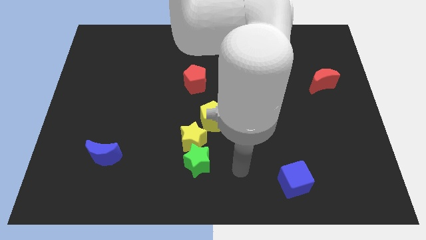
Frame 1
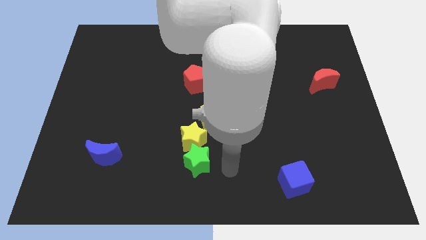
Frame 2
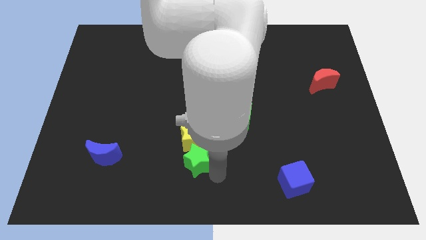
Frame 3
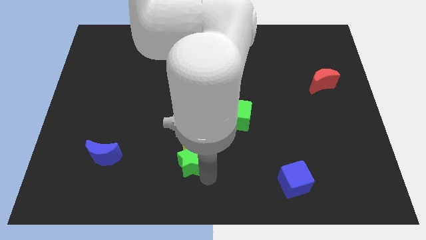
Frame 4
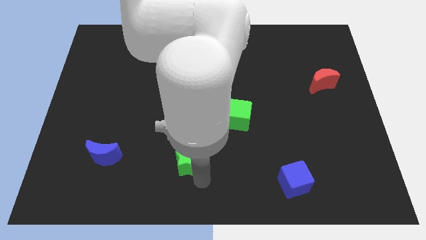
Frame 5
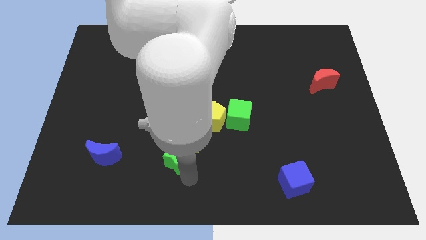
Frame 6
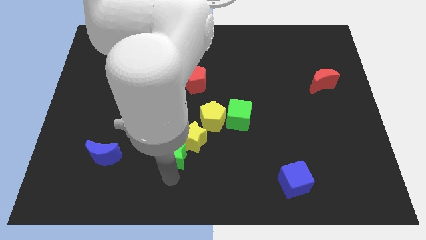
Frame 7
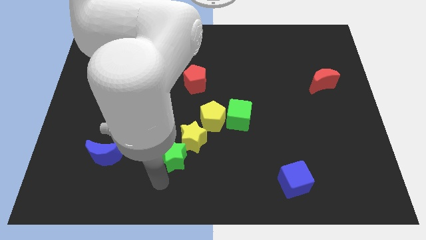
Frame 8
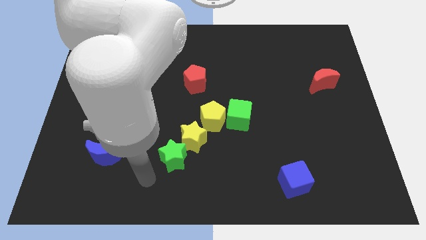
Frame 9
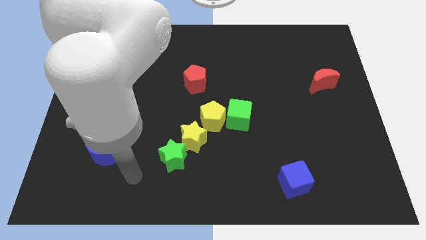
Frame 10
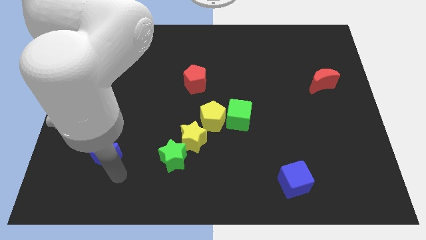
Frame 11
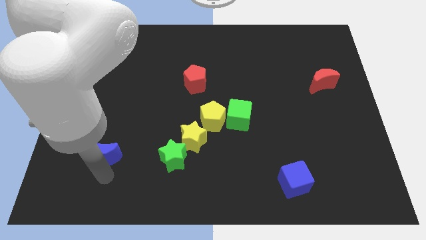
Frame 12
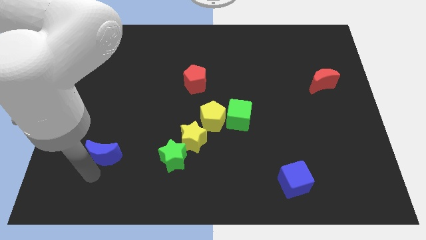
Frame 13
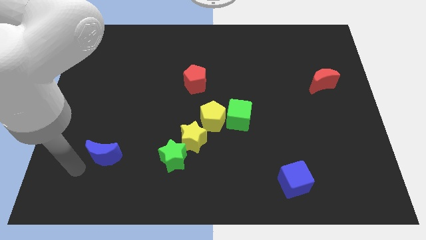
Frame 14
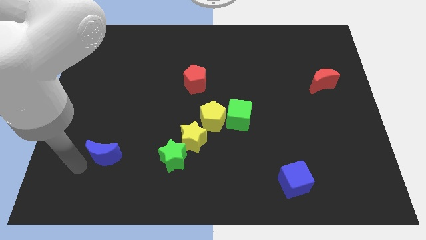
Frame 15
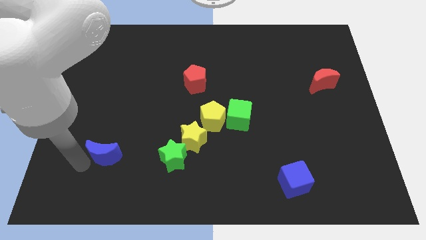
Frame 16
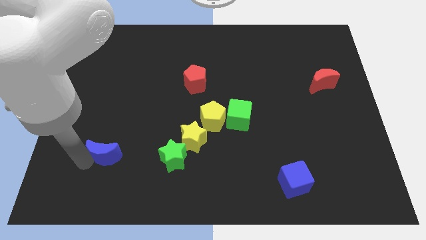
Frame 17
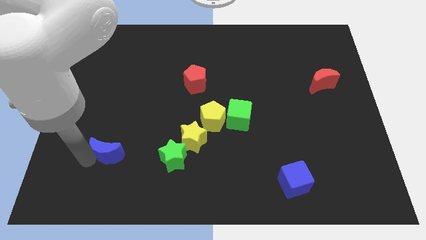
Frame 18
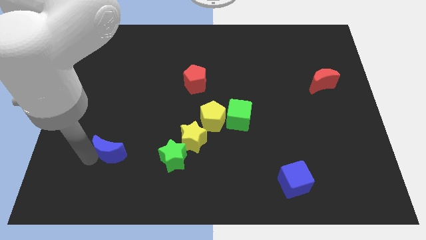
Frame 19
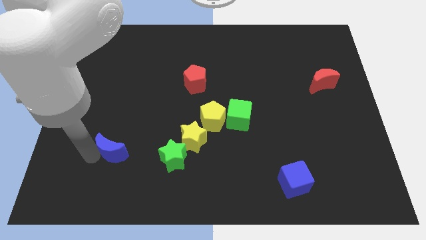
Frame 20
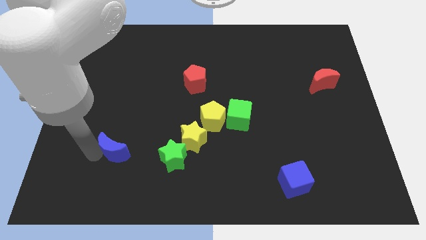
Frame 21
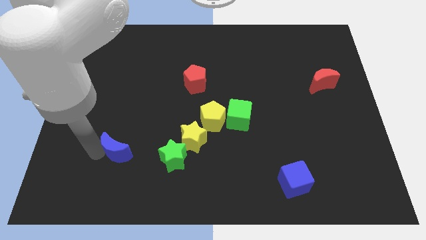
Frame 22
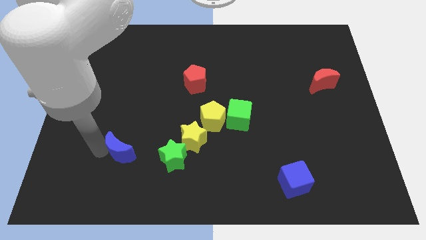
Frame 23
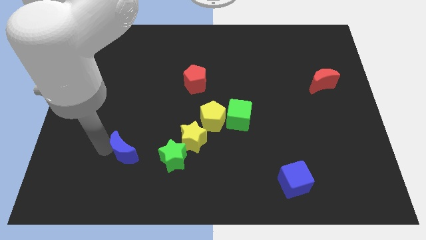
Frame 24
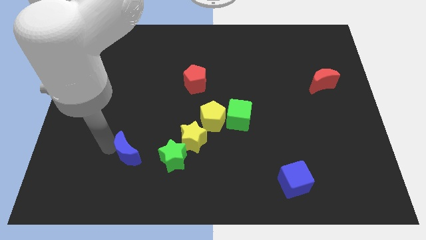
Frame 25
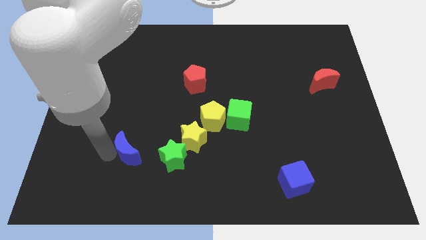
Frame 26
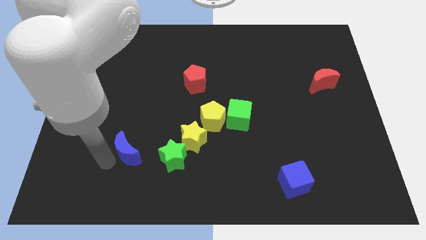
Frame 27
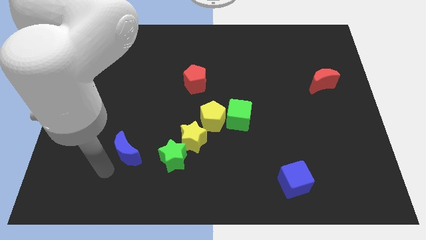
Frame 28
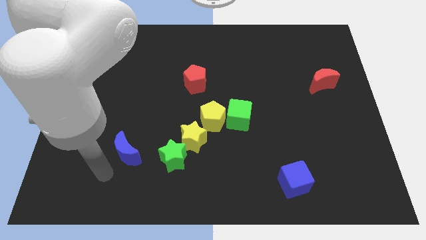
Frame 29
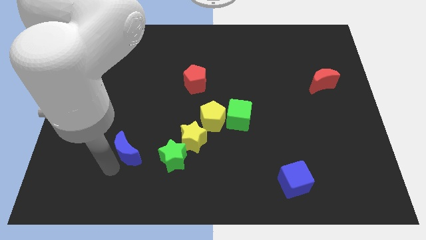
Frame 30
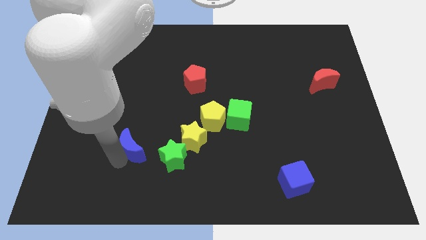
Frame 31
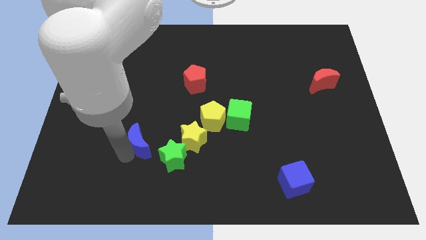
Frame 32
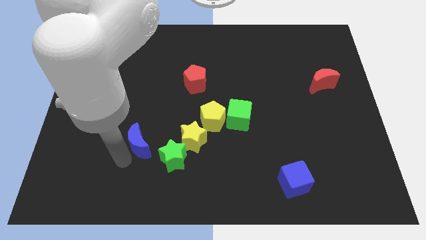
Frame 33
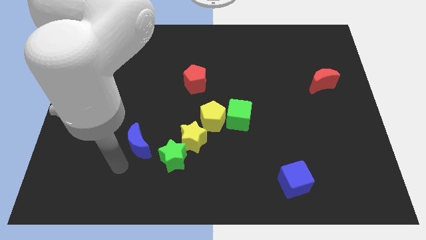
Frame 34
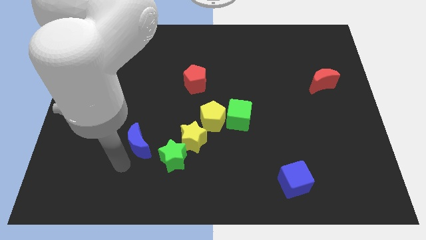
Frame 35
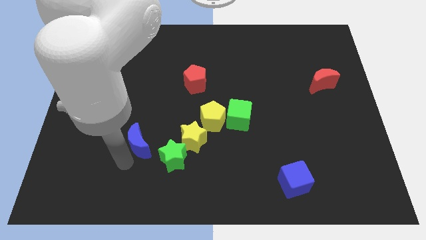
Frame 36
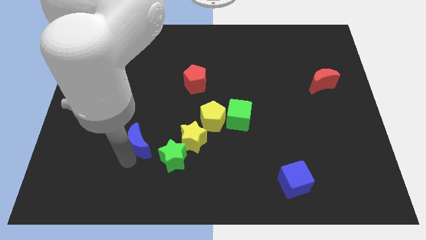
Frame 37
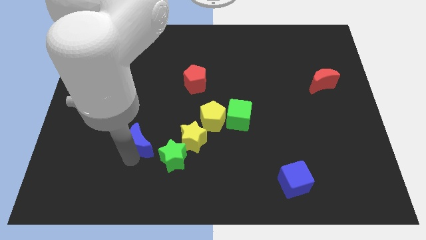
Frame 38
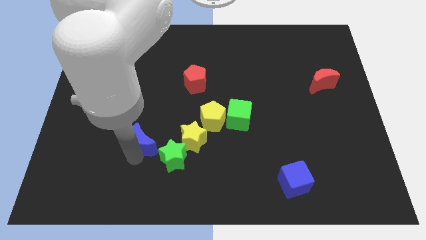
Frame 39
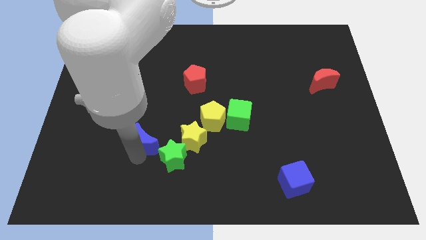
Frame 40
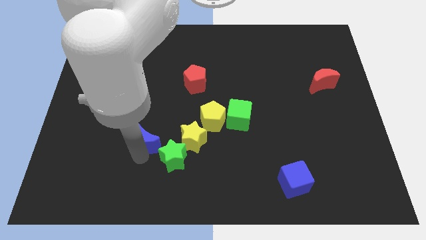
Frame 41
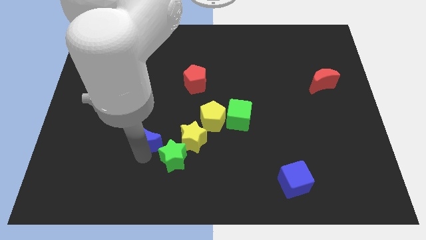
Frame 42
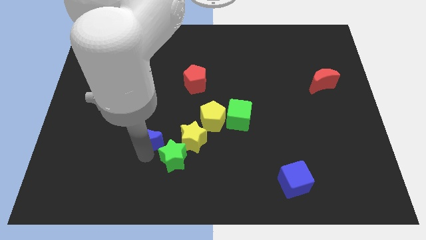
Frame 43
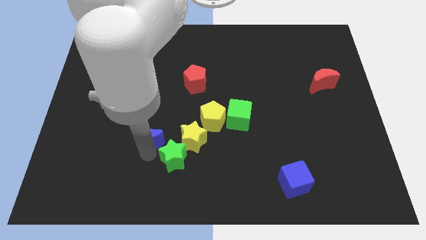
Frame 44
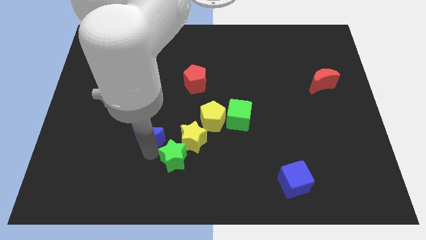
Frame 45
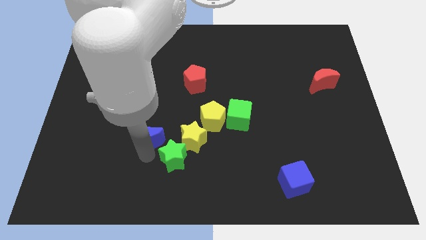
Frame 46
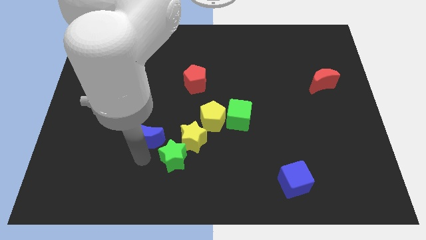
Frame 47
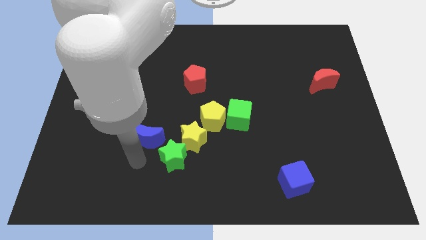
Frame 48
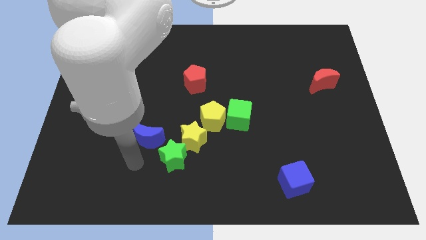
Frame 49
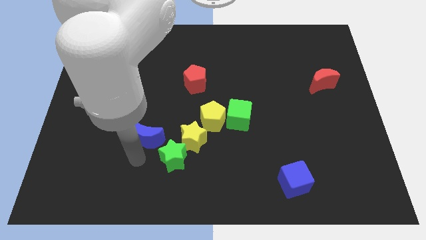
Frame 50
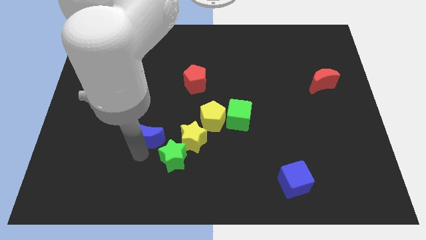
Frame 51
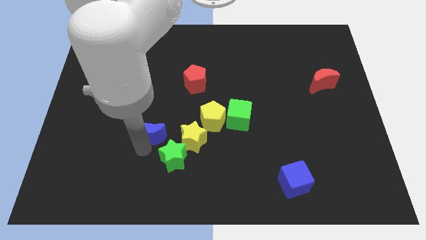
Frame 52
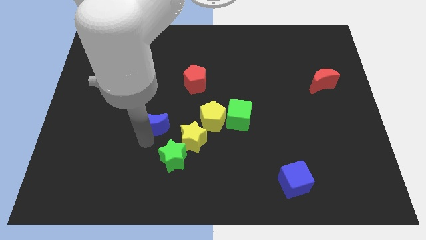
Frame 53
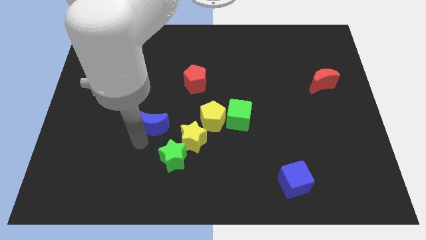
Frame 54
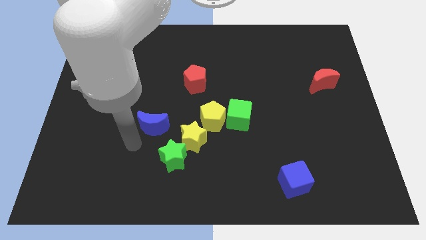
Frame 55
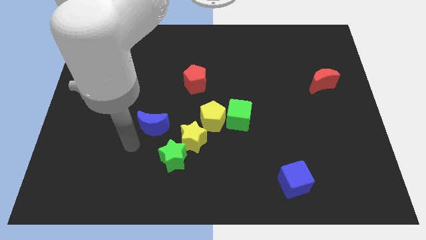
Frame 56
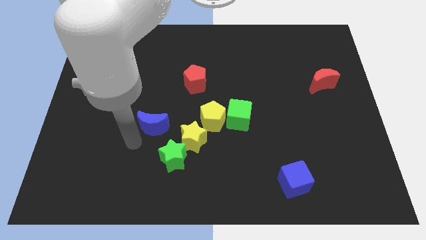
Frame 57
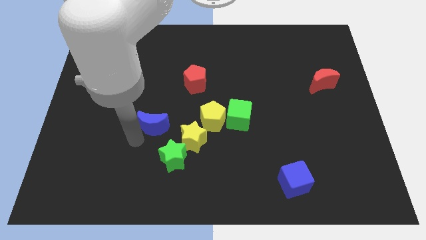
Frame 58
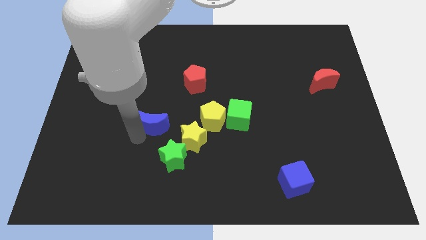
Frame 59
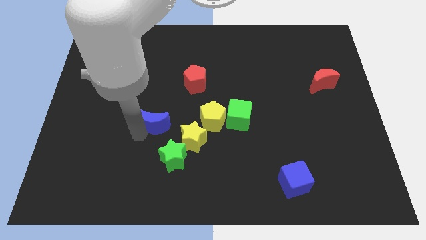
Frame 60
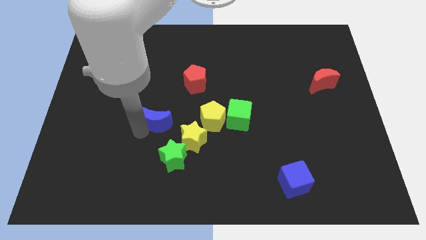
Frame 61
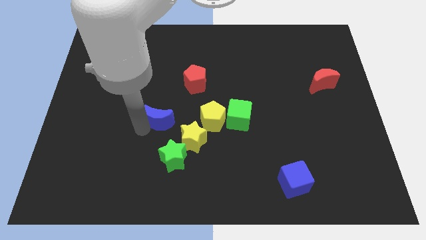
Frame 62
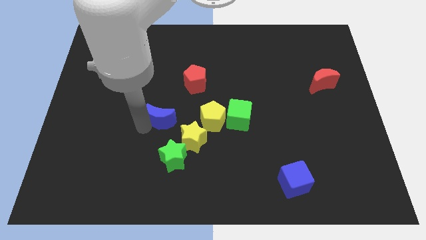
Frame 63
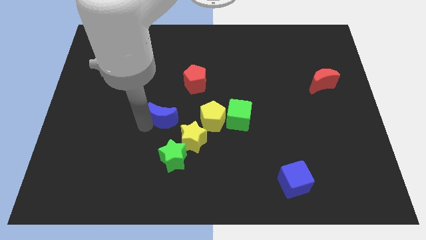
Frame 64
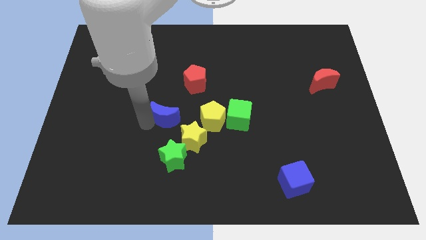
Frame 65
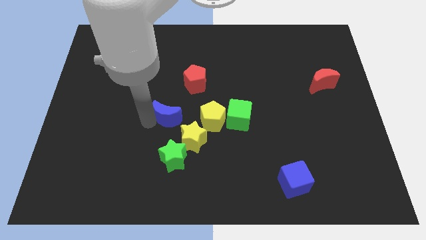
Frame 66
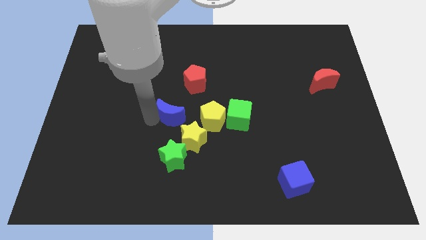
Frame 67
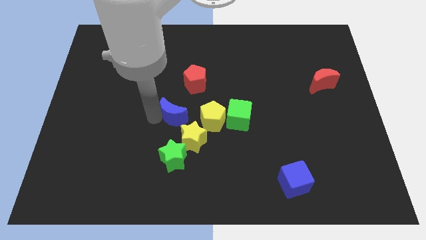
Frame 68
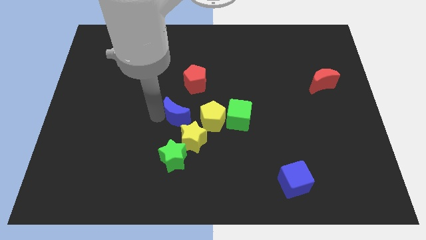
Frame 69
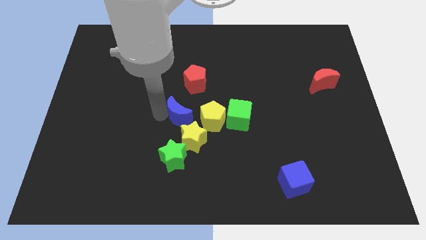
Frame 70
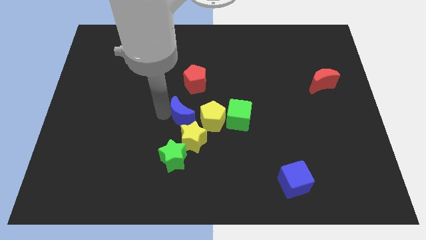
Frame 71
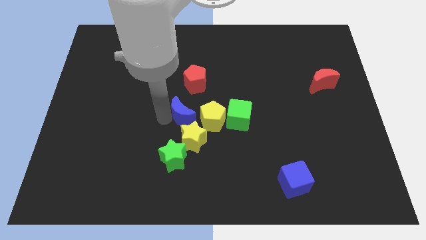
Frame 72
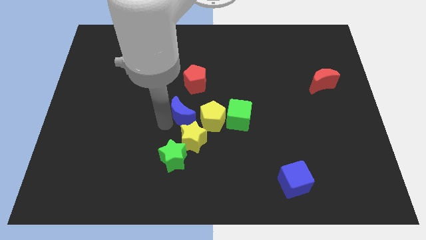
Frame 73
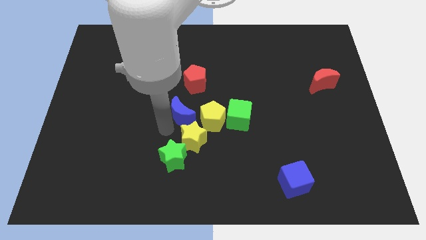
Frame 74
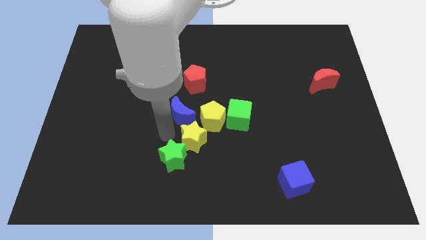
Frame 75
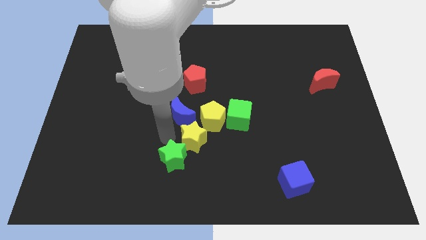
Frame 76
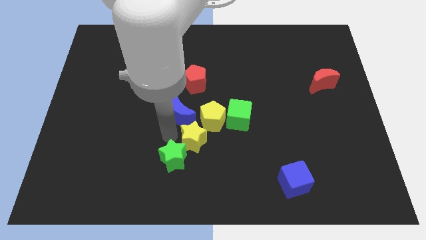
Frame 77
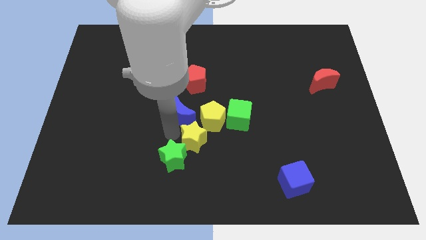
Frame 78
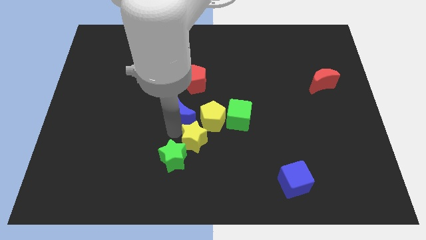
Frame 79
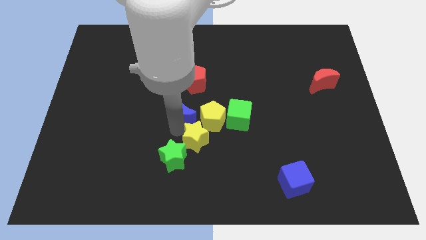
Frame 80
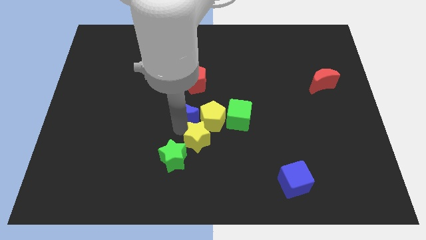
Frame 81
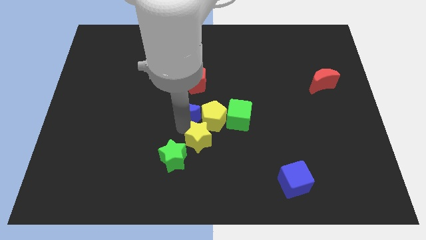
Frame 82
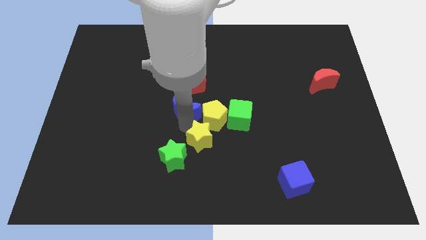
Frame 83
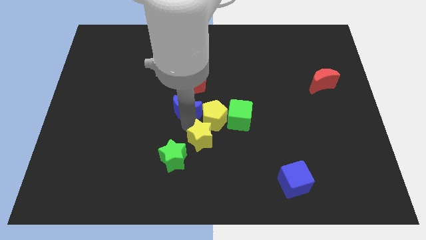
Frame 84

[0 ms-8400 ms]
push the blue moon diagonally up and right

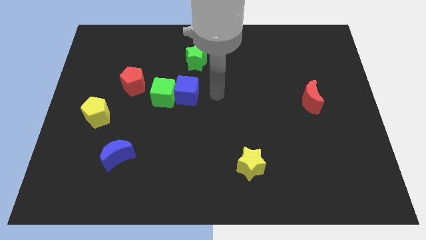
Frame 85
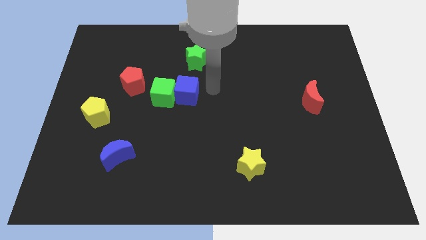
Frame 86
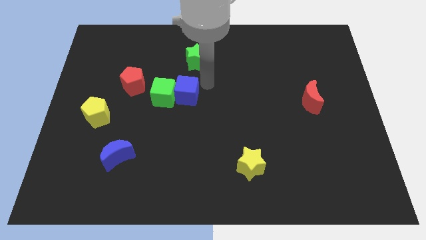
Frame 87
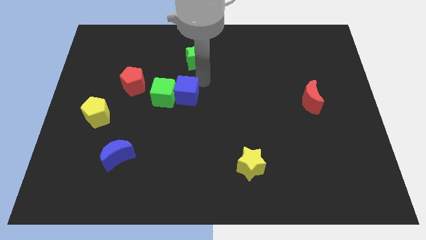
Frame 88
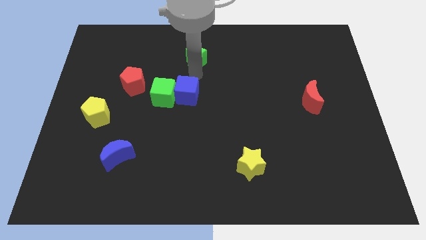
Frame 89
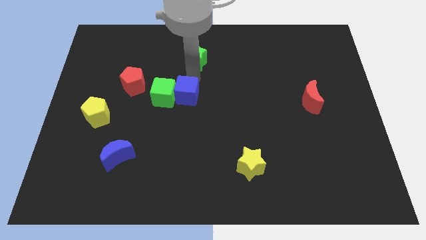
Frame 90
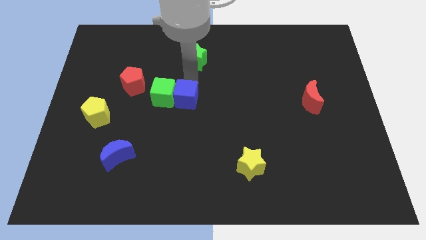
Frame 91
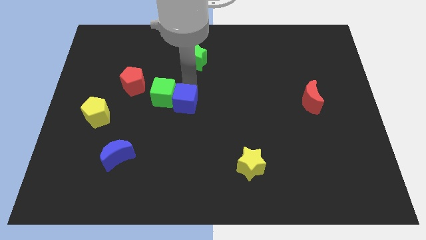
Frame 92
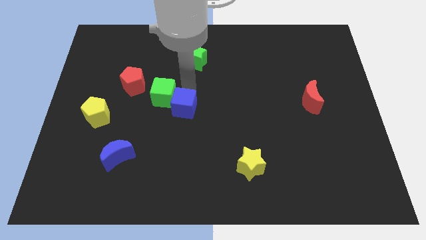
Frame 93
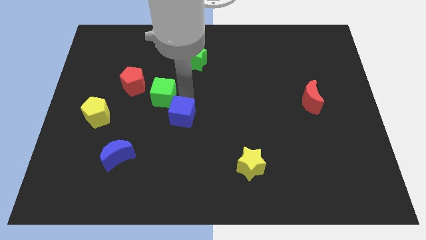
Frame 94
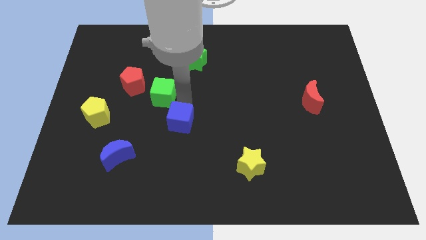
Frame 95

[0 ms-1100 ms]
move the blue cube down a little bit
